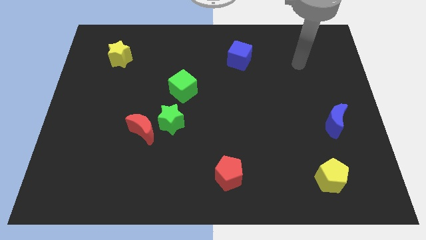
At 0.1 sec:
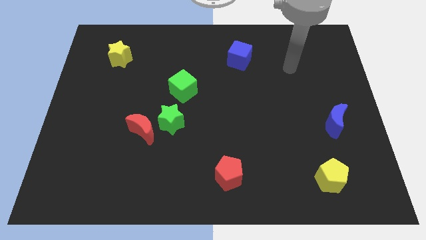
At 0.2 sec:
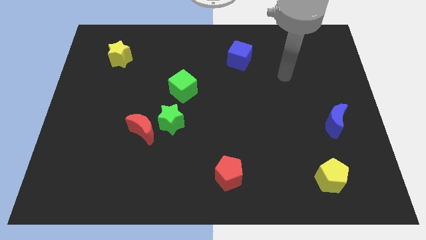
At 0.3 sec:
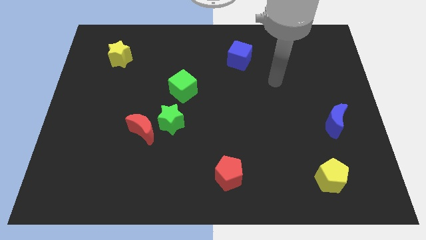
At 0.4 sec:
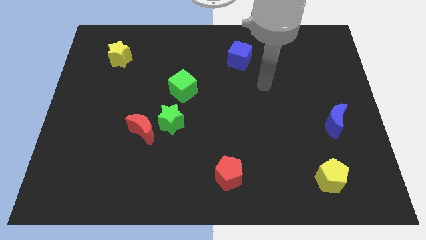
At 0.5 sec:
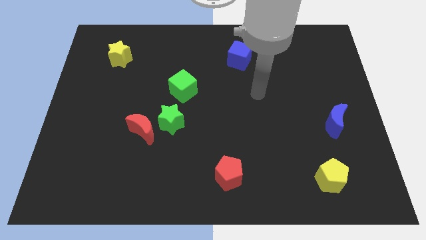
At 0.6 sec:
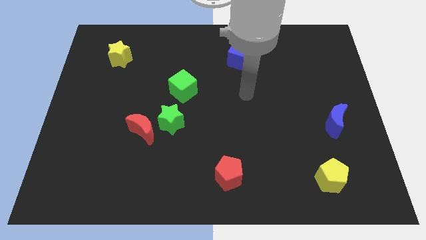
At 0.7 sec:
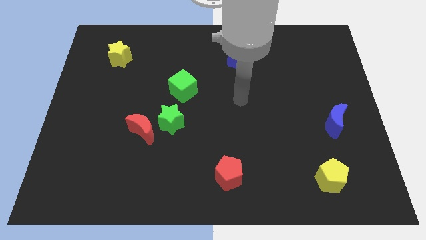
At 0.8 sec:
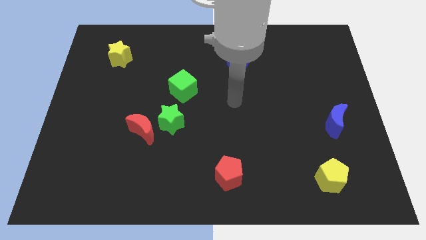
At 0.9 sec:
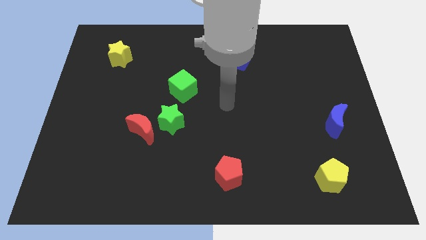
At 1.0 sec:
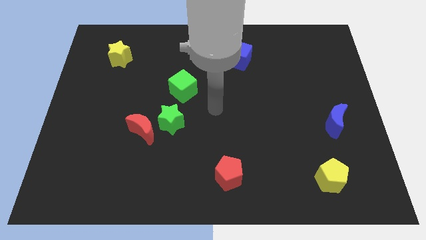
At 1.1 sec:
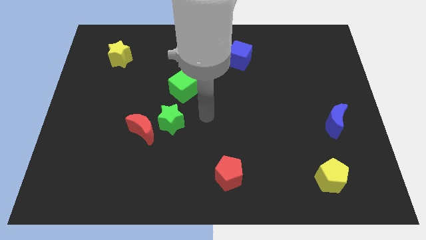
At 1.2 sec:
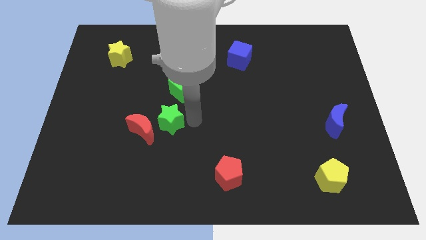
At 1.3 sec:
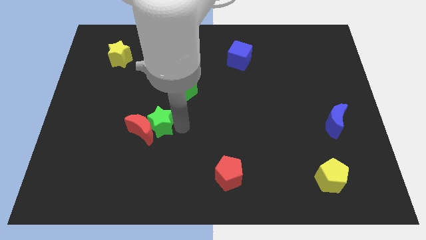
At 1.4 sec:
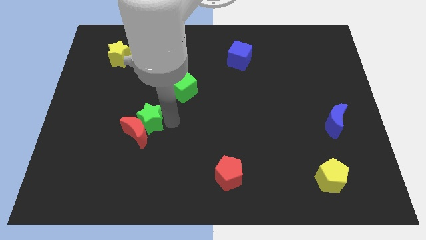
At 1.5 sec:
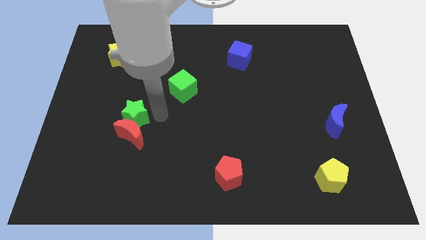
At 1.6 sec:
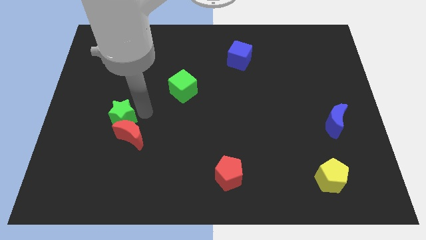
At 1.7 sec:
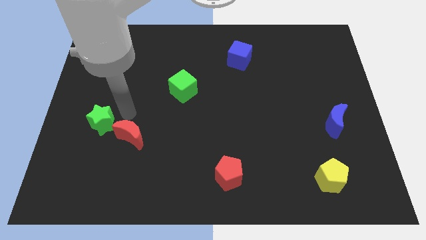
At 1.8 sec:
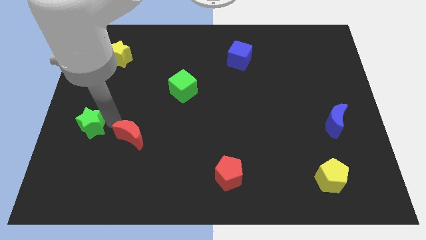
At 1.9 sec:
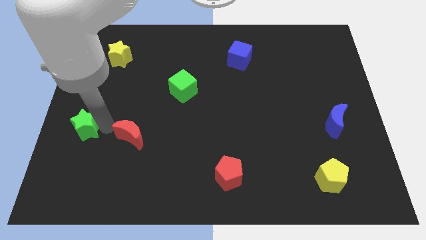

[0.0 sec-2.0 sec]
pull the red moon apart from the green star

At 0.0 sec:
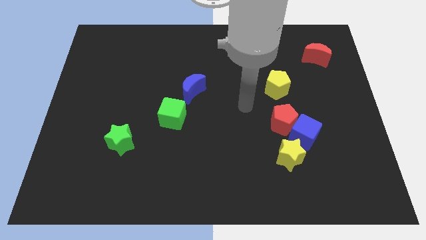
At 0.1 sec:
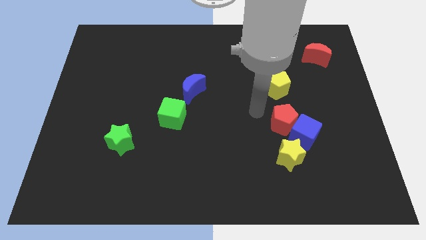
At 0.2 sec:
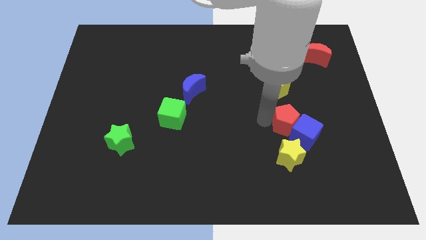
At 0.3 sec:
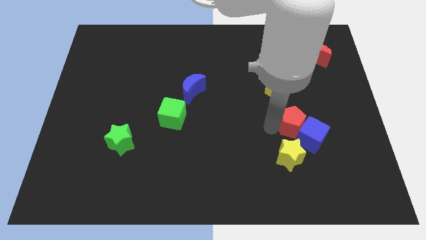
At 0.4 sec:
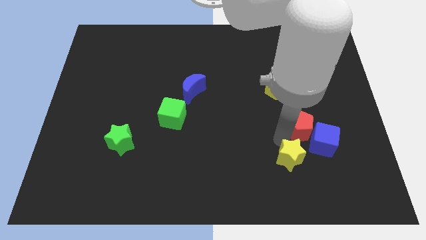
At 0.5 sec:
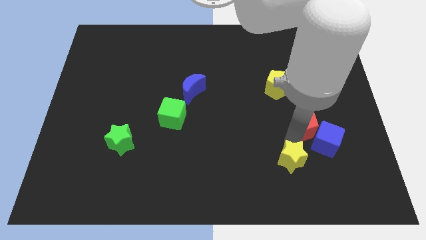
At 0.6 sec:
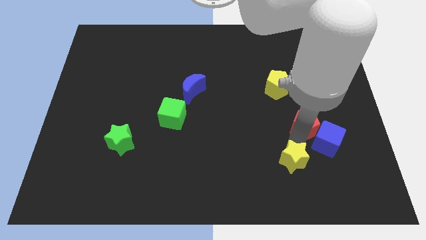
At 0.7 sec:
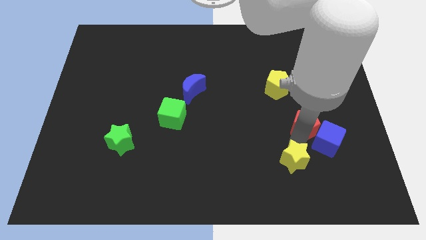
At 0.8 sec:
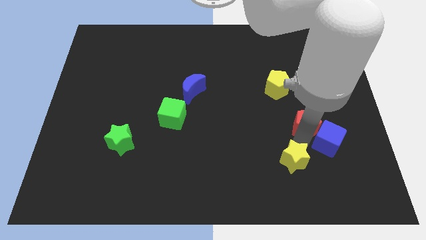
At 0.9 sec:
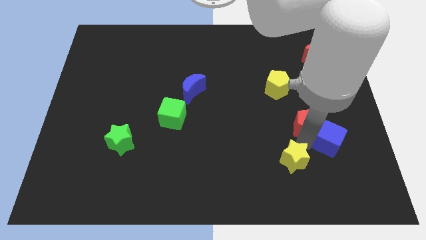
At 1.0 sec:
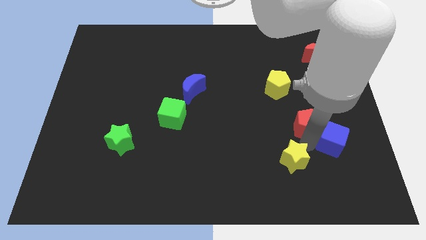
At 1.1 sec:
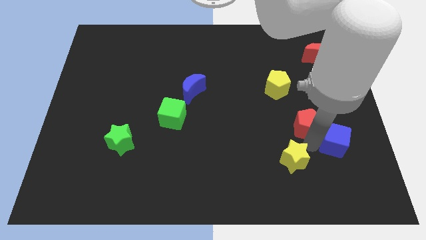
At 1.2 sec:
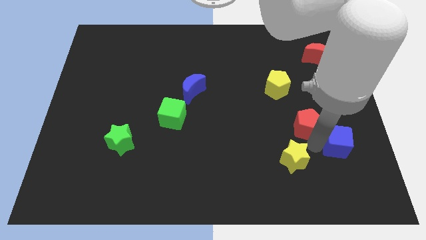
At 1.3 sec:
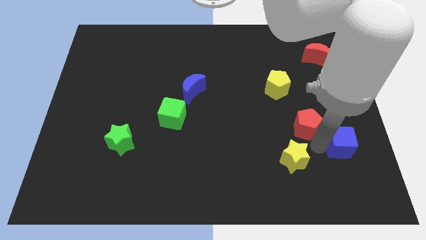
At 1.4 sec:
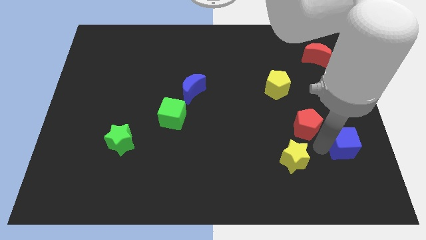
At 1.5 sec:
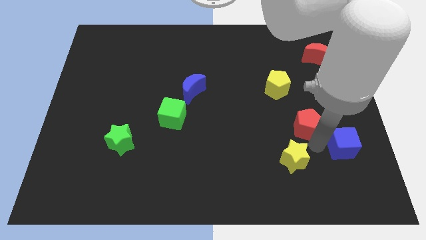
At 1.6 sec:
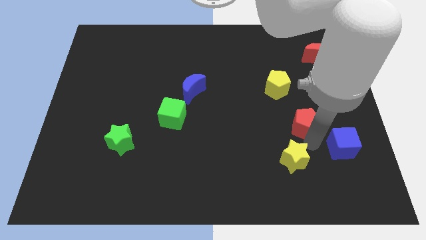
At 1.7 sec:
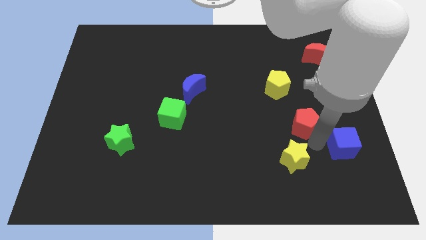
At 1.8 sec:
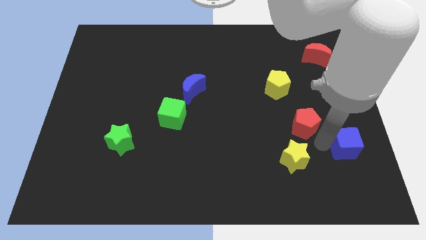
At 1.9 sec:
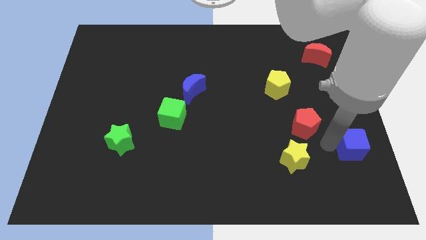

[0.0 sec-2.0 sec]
pull the blue cube apart from the red pentagon and yellow star

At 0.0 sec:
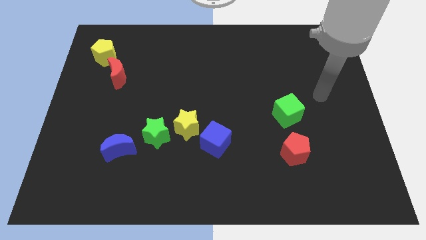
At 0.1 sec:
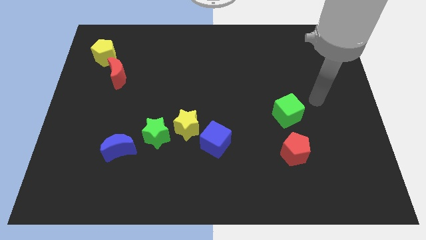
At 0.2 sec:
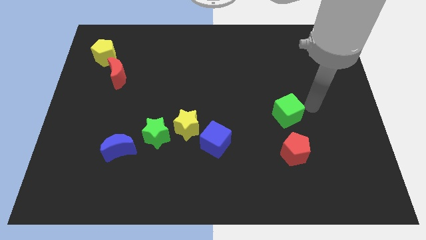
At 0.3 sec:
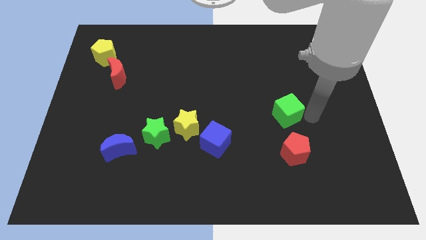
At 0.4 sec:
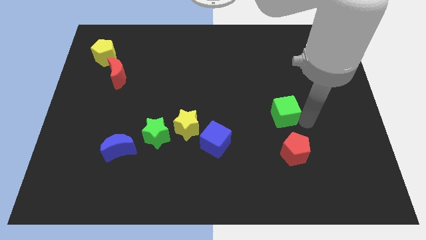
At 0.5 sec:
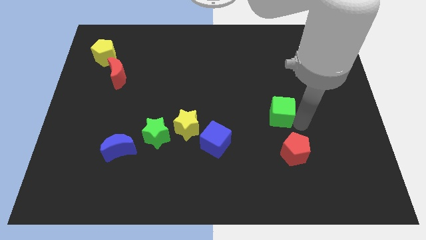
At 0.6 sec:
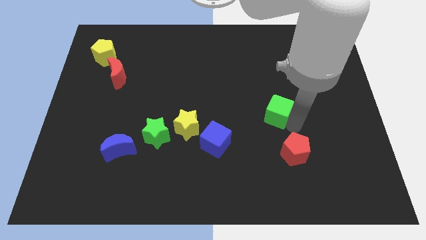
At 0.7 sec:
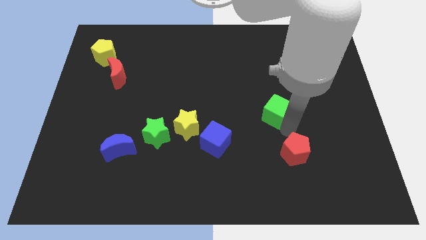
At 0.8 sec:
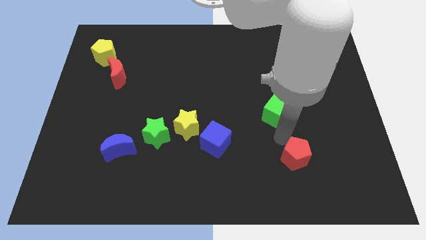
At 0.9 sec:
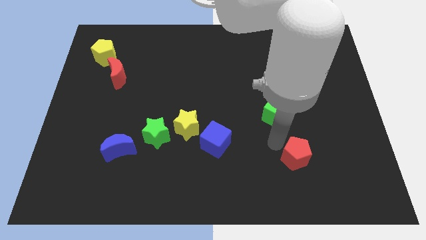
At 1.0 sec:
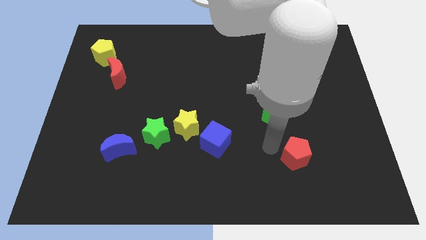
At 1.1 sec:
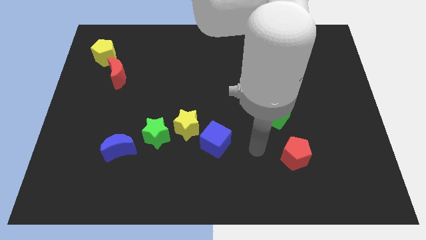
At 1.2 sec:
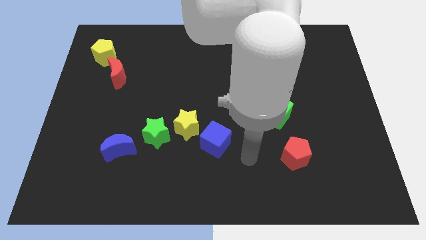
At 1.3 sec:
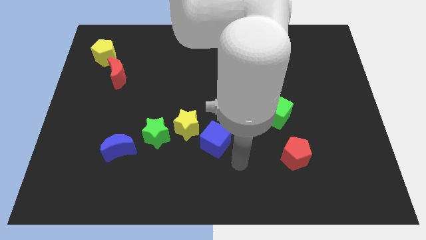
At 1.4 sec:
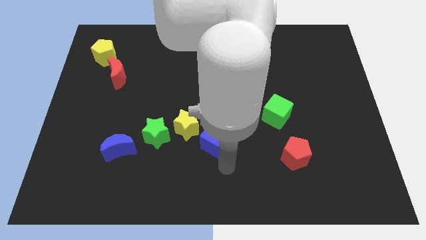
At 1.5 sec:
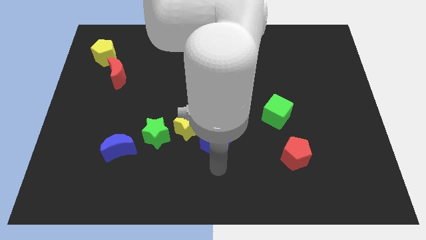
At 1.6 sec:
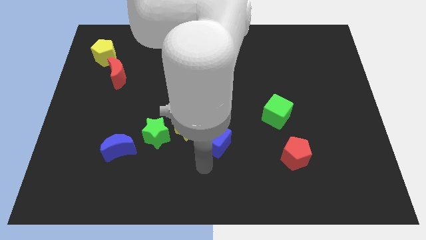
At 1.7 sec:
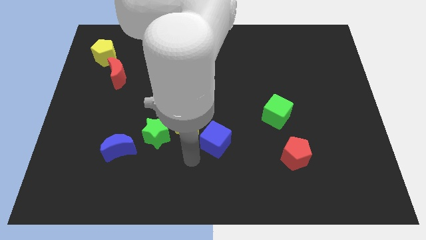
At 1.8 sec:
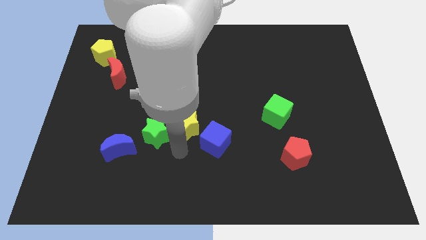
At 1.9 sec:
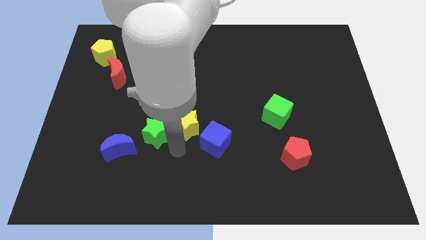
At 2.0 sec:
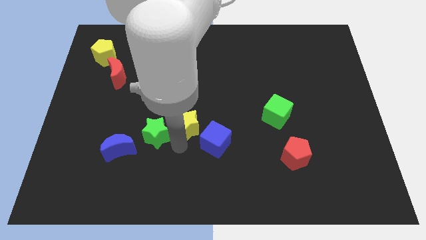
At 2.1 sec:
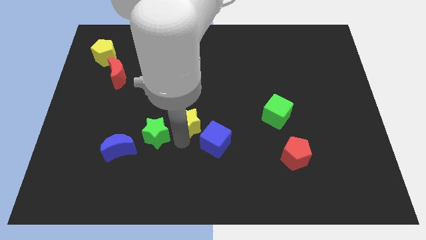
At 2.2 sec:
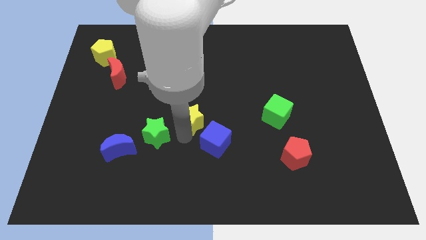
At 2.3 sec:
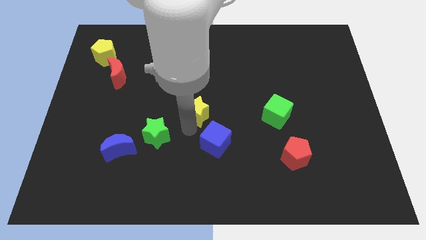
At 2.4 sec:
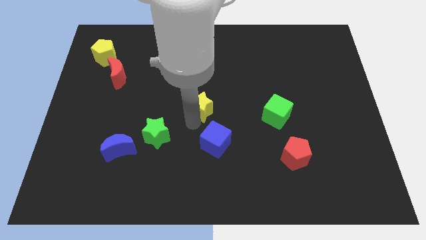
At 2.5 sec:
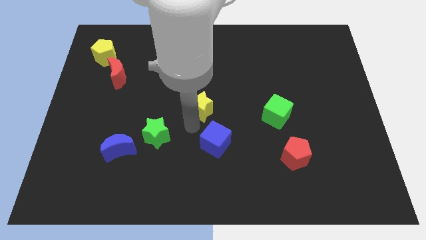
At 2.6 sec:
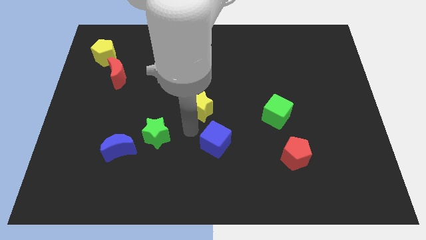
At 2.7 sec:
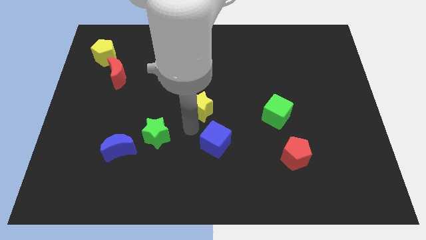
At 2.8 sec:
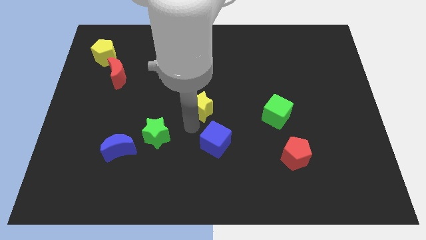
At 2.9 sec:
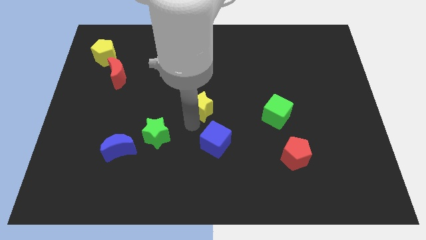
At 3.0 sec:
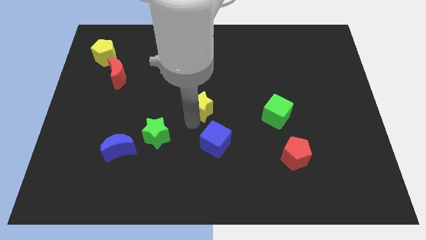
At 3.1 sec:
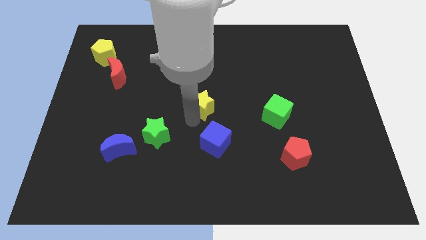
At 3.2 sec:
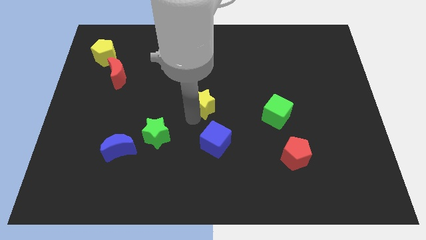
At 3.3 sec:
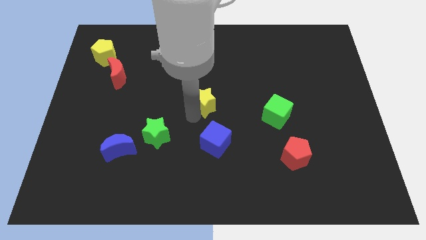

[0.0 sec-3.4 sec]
move the yellow star away from the green star and blue cube

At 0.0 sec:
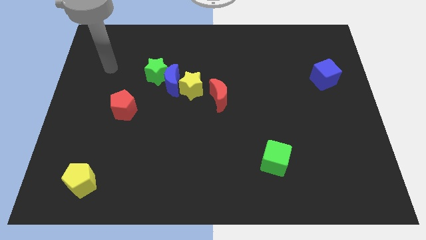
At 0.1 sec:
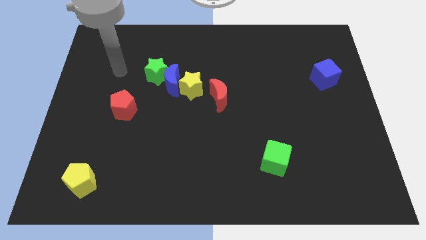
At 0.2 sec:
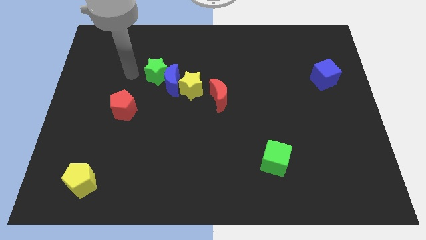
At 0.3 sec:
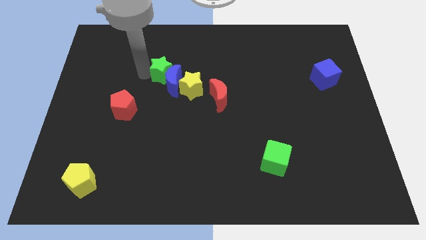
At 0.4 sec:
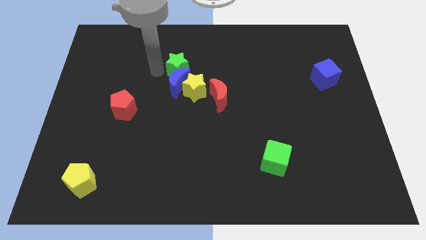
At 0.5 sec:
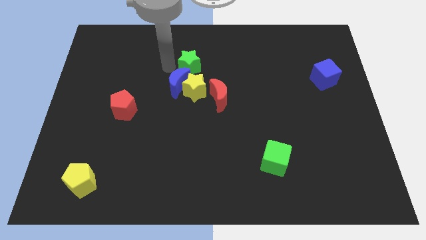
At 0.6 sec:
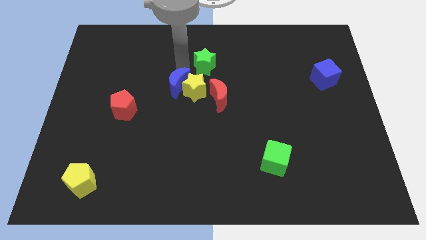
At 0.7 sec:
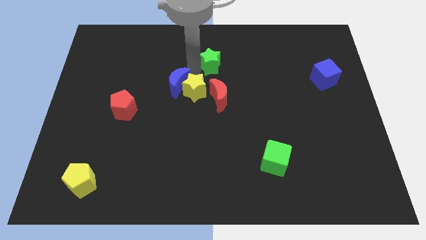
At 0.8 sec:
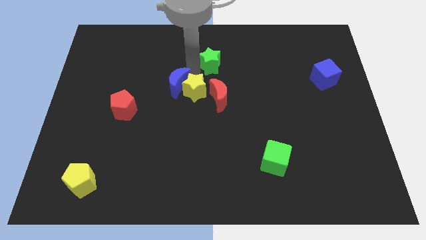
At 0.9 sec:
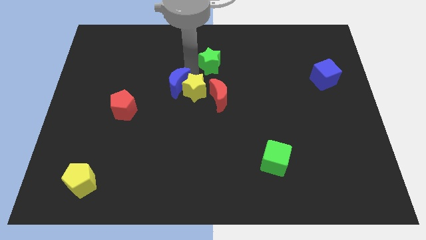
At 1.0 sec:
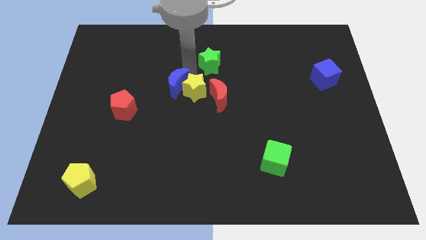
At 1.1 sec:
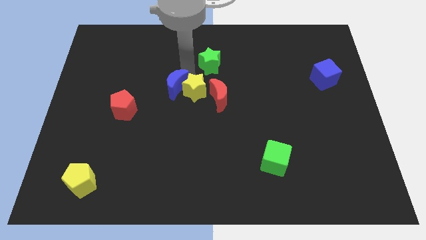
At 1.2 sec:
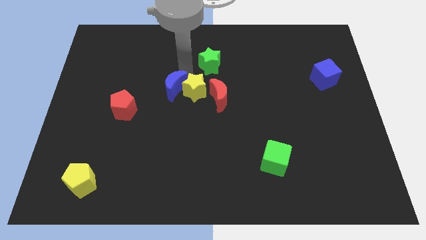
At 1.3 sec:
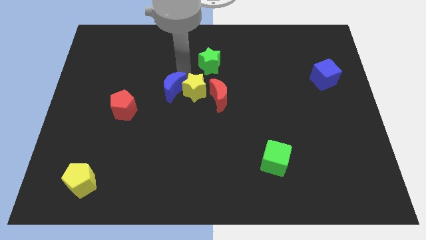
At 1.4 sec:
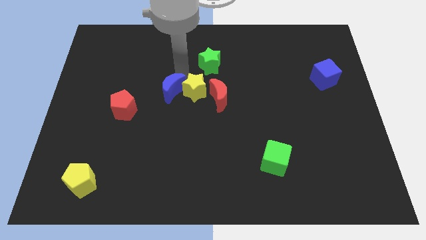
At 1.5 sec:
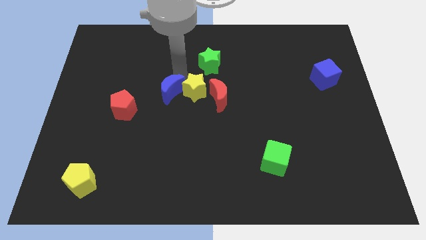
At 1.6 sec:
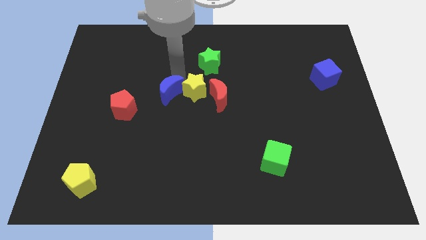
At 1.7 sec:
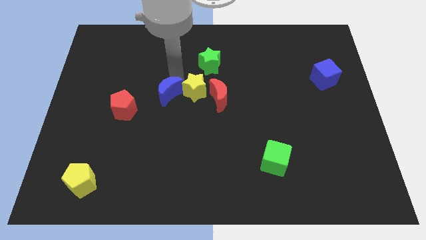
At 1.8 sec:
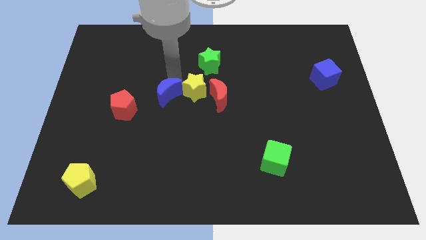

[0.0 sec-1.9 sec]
pull the blue moon apart from the green star and yellow star

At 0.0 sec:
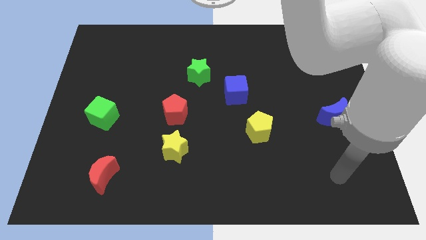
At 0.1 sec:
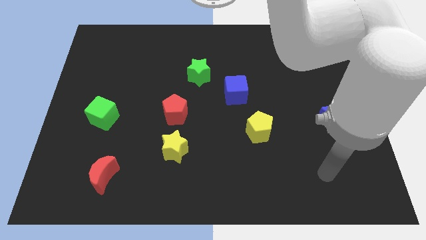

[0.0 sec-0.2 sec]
separate the red pentagon from the yellow star
